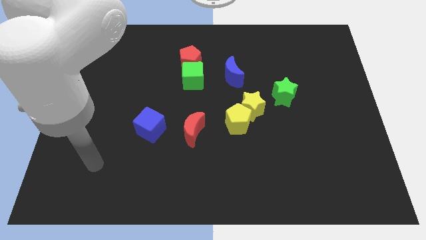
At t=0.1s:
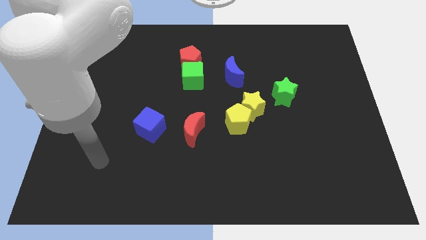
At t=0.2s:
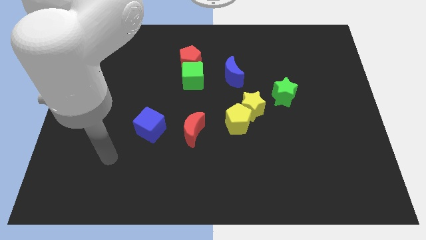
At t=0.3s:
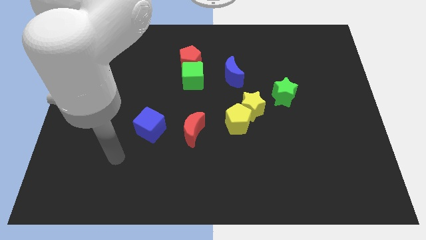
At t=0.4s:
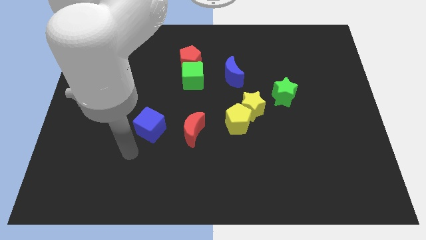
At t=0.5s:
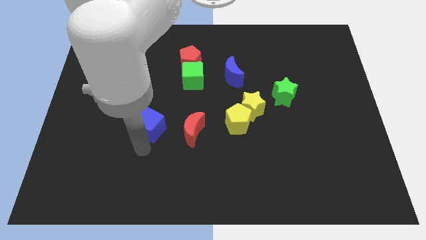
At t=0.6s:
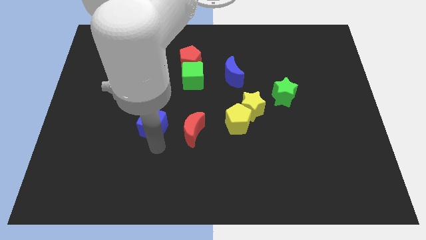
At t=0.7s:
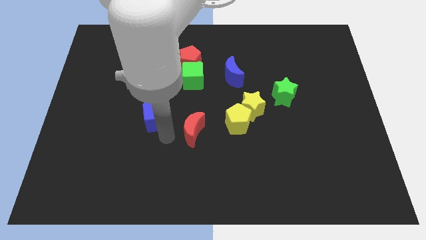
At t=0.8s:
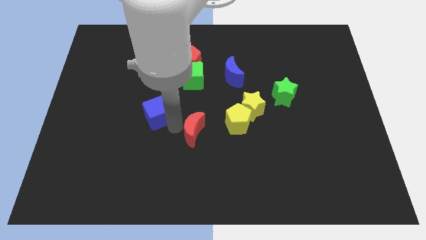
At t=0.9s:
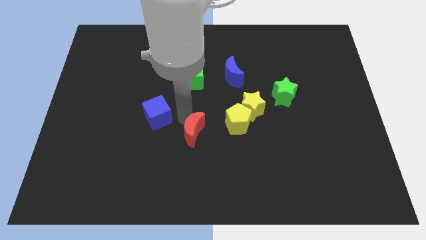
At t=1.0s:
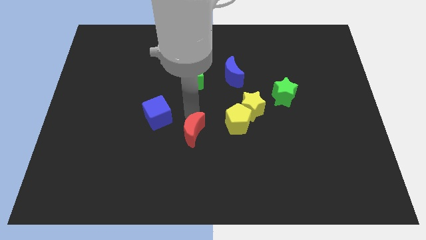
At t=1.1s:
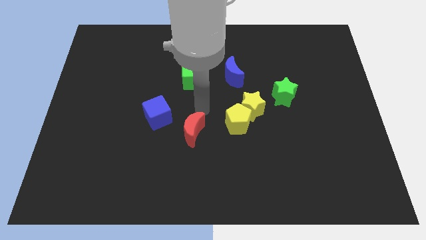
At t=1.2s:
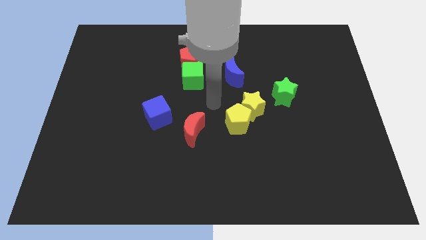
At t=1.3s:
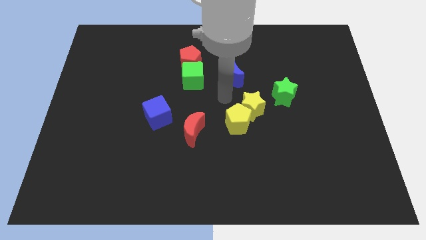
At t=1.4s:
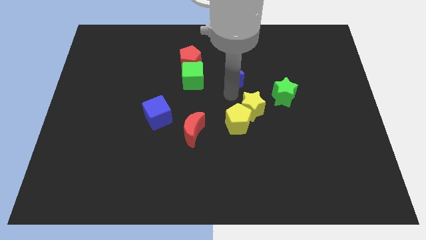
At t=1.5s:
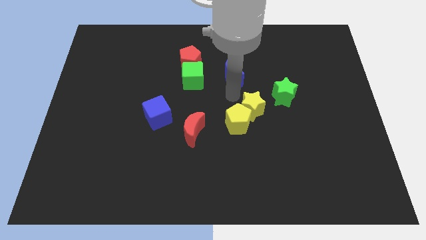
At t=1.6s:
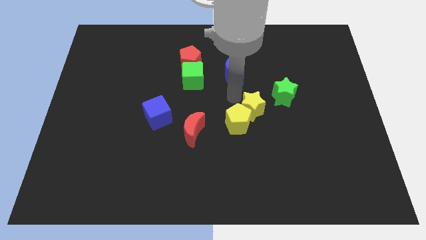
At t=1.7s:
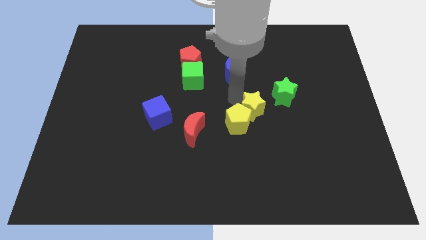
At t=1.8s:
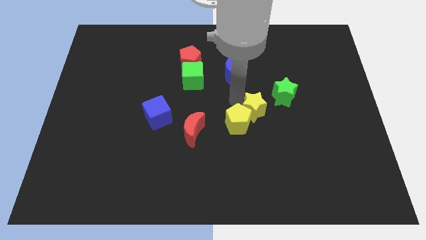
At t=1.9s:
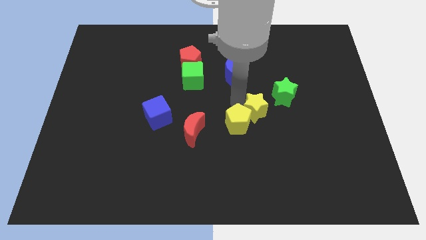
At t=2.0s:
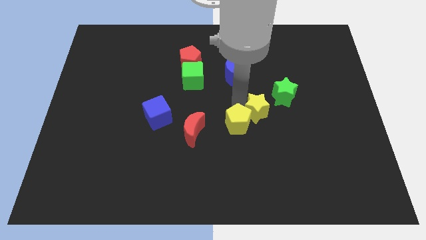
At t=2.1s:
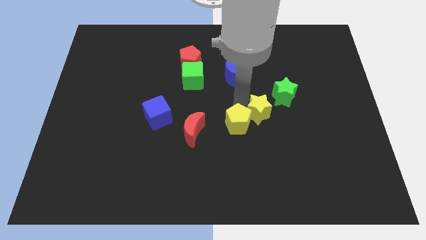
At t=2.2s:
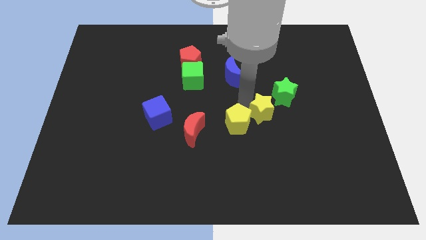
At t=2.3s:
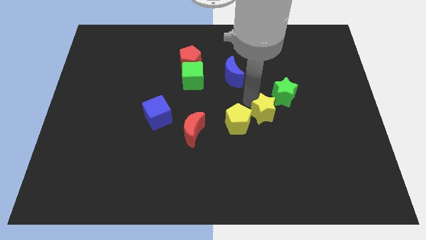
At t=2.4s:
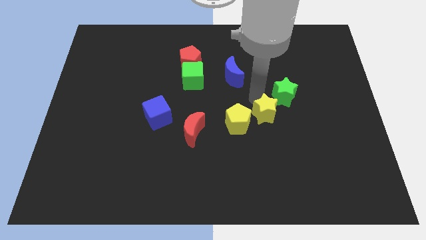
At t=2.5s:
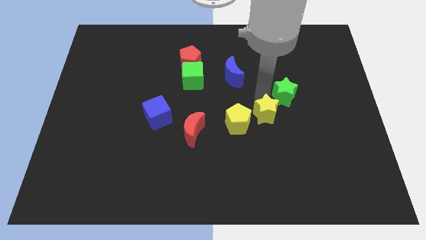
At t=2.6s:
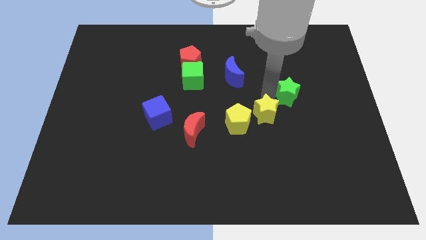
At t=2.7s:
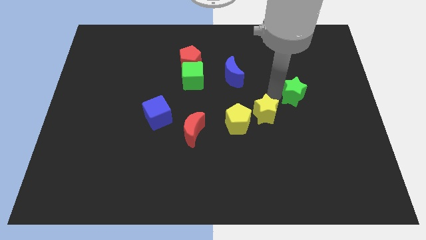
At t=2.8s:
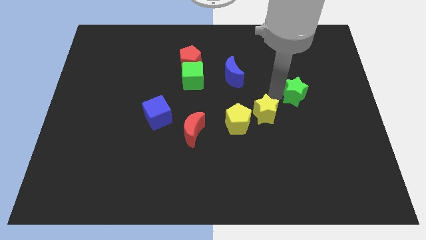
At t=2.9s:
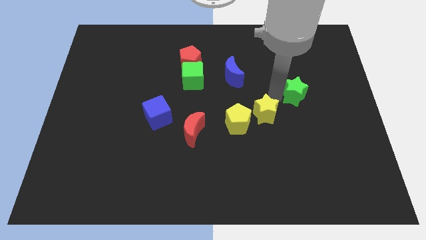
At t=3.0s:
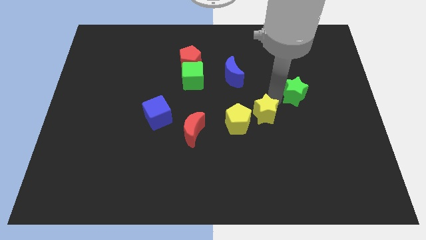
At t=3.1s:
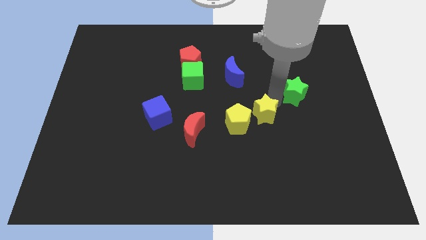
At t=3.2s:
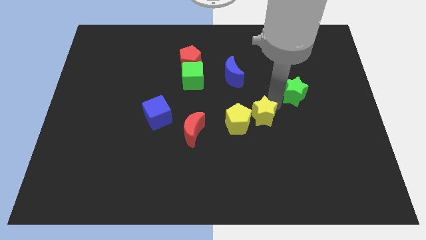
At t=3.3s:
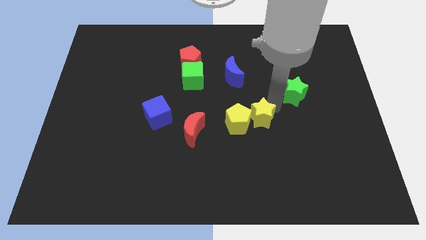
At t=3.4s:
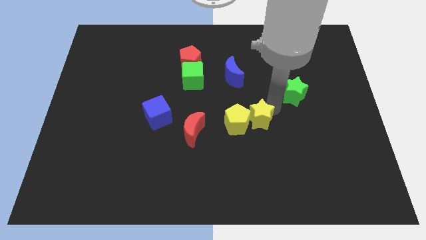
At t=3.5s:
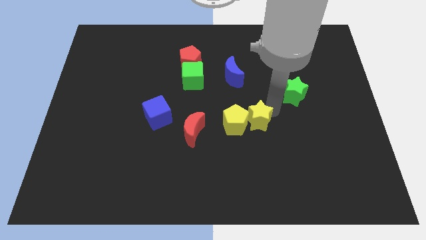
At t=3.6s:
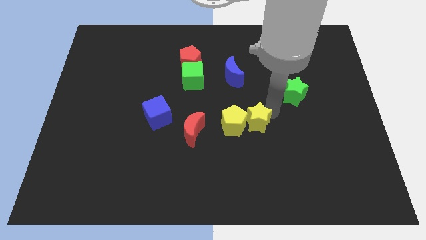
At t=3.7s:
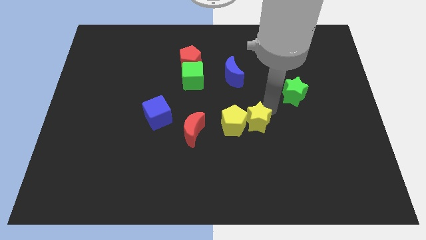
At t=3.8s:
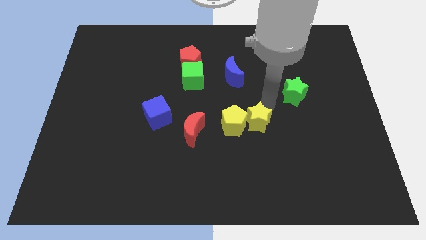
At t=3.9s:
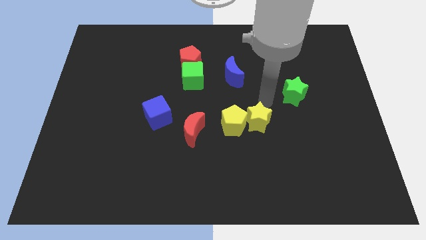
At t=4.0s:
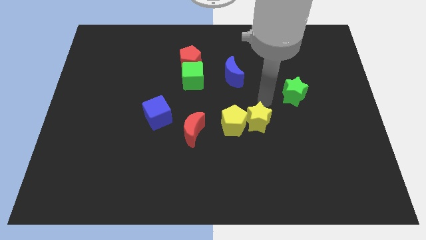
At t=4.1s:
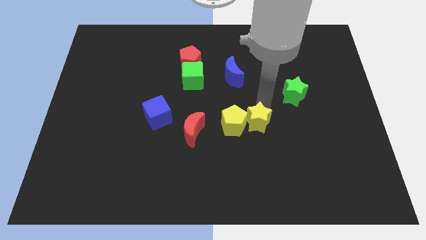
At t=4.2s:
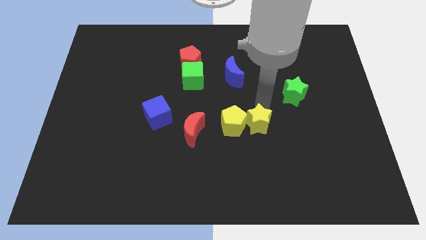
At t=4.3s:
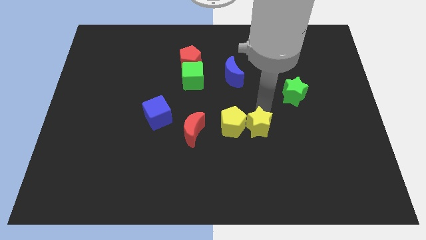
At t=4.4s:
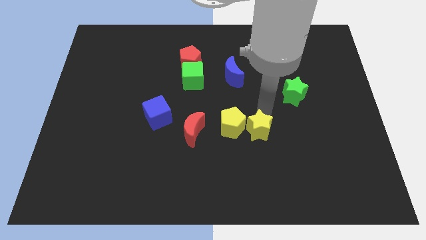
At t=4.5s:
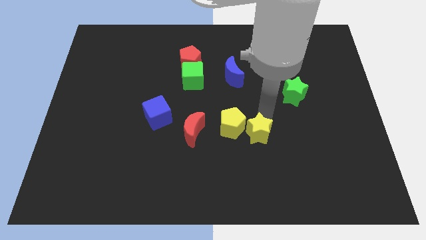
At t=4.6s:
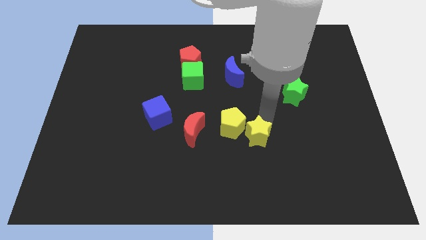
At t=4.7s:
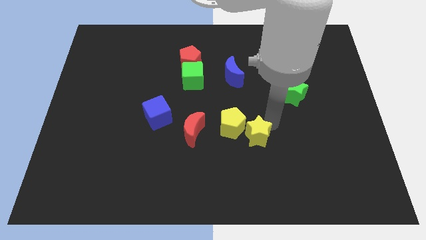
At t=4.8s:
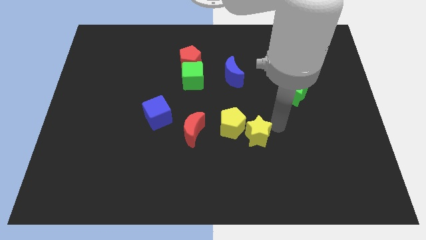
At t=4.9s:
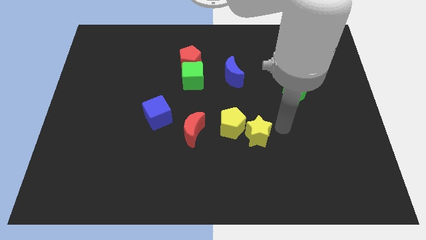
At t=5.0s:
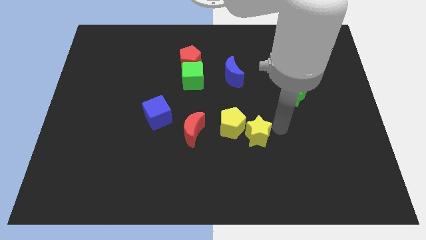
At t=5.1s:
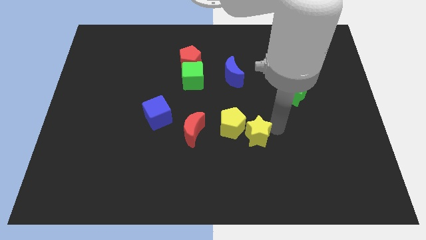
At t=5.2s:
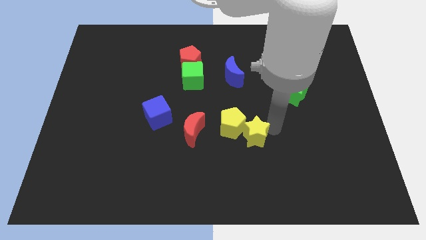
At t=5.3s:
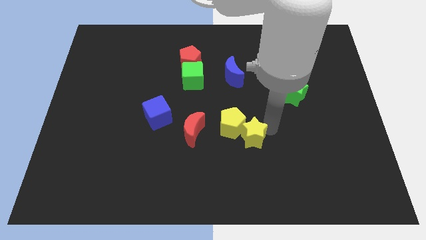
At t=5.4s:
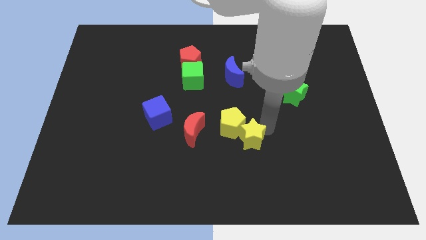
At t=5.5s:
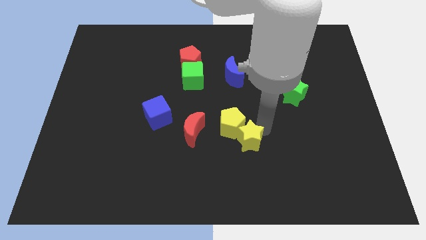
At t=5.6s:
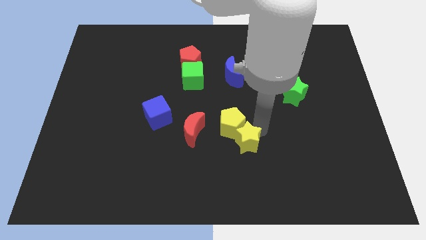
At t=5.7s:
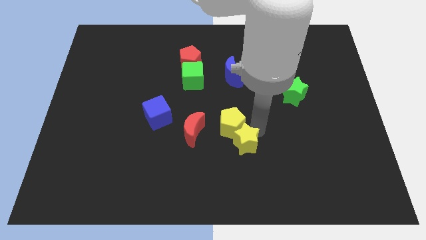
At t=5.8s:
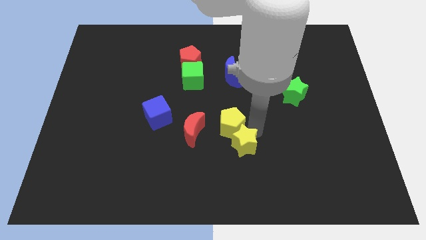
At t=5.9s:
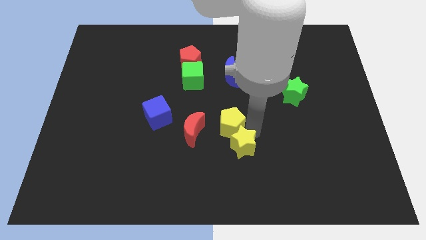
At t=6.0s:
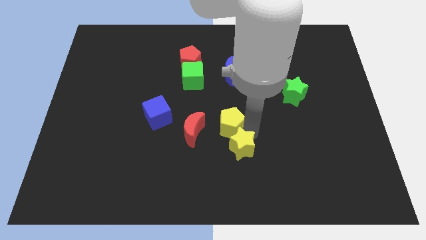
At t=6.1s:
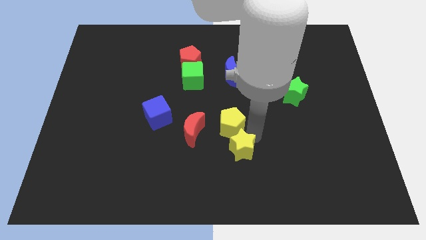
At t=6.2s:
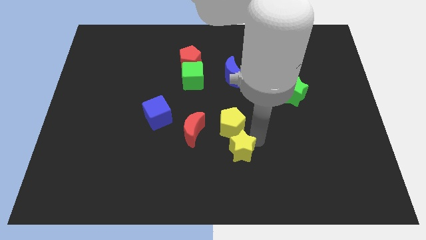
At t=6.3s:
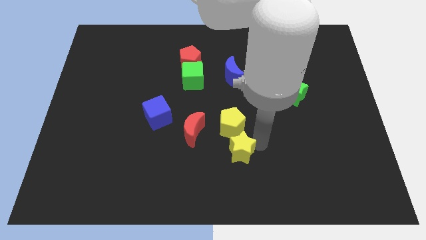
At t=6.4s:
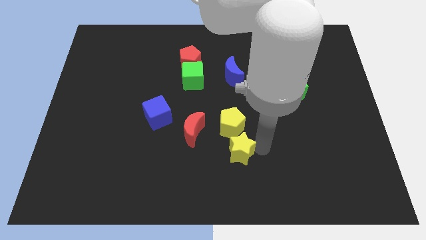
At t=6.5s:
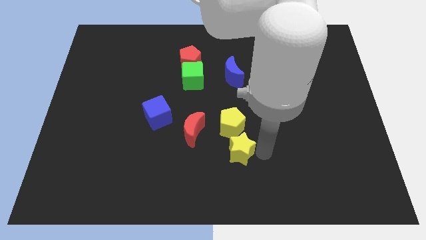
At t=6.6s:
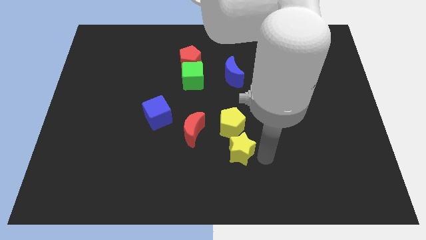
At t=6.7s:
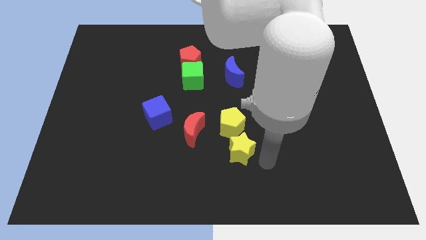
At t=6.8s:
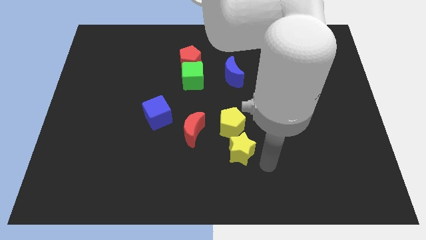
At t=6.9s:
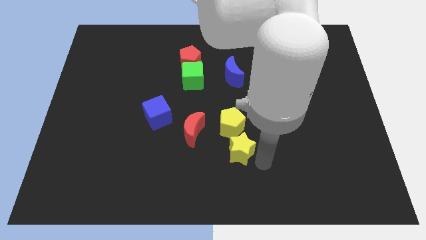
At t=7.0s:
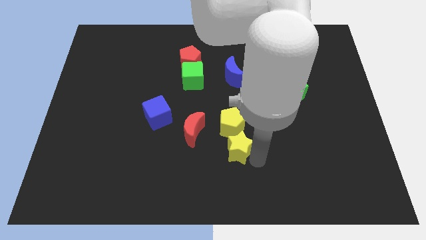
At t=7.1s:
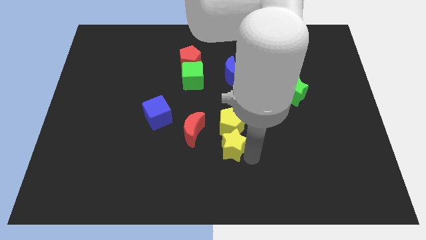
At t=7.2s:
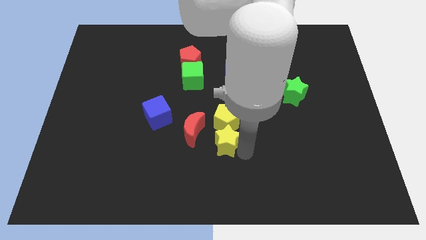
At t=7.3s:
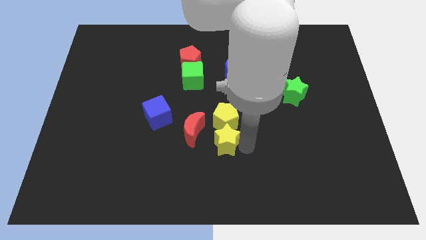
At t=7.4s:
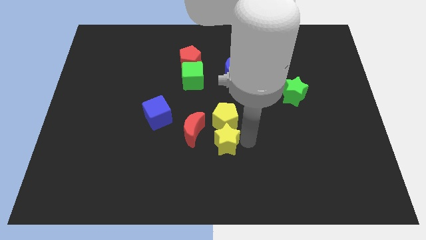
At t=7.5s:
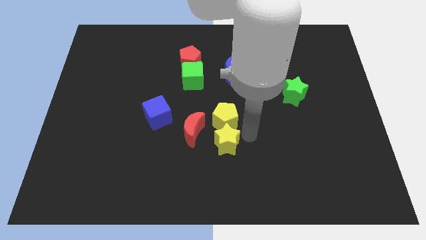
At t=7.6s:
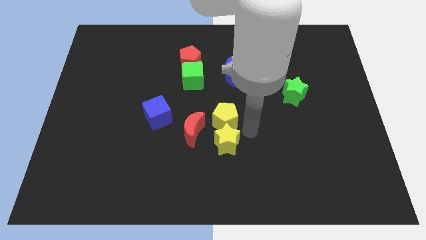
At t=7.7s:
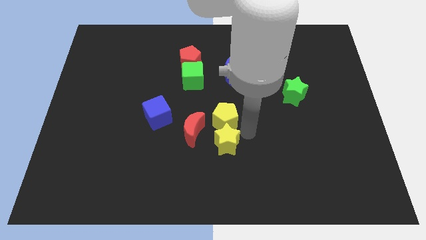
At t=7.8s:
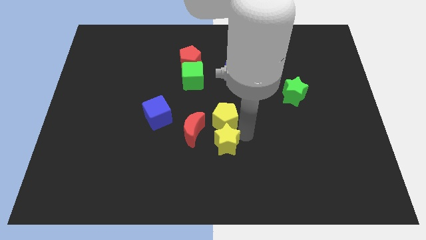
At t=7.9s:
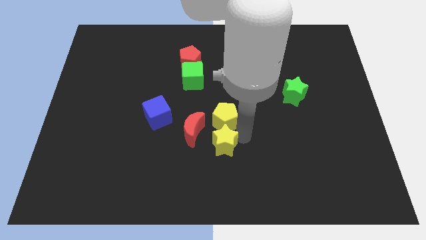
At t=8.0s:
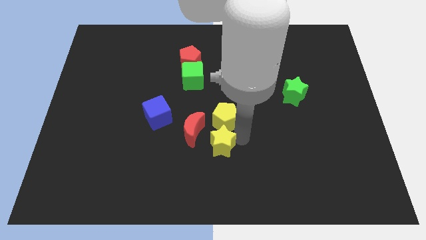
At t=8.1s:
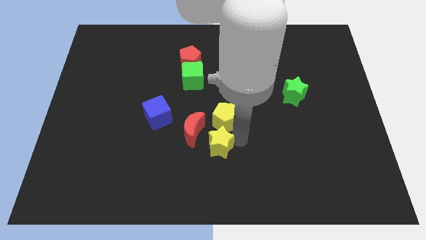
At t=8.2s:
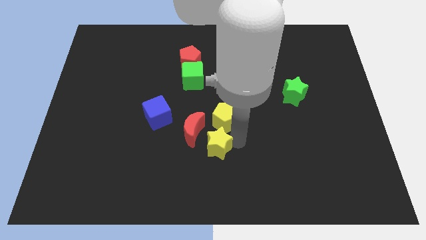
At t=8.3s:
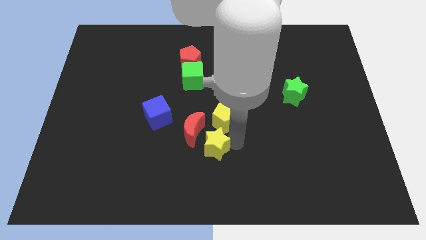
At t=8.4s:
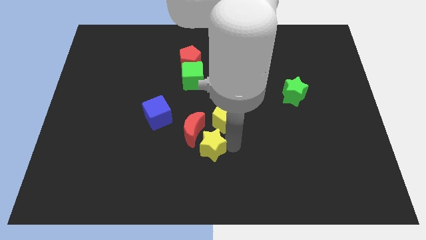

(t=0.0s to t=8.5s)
slide the yellow star to the bottom of the red moon
